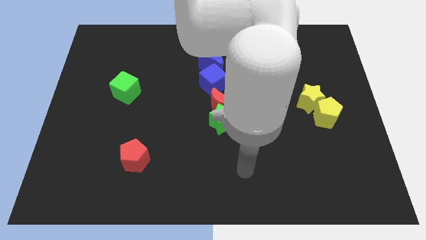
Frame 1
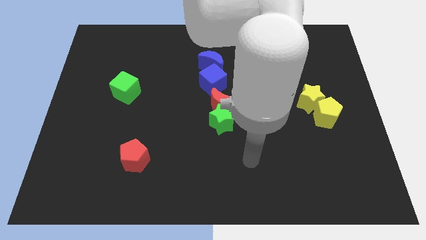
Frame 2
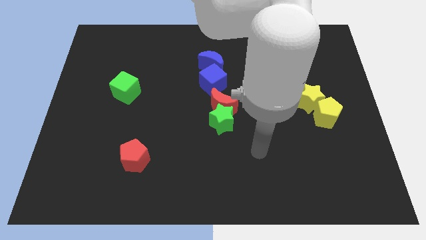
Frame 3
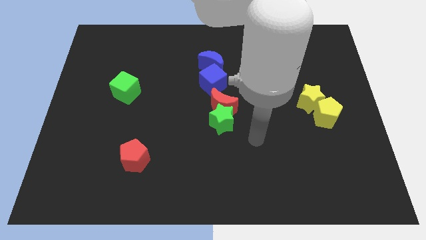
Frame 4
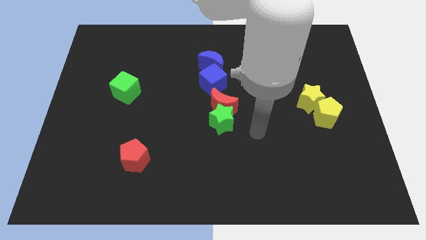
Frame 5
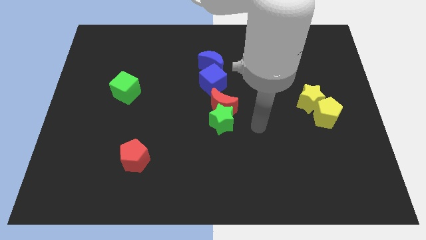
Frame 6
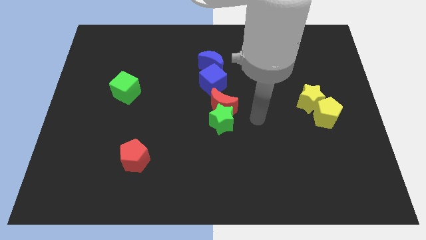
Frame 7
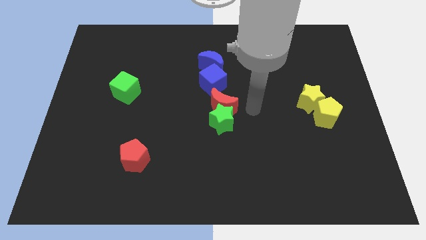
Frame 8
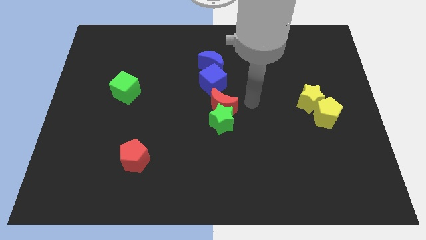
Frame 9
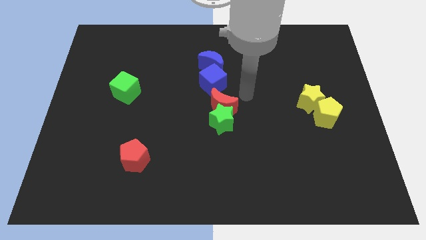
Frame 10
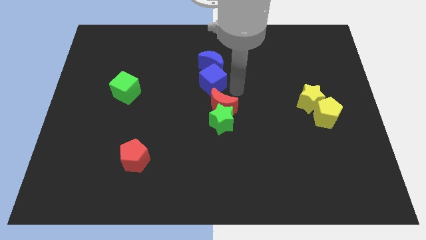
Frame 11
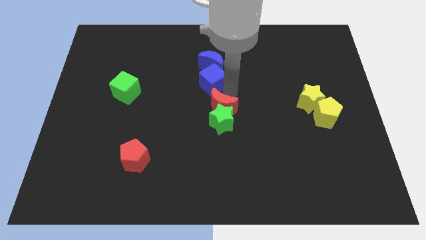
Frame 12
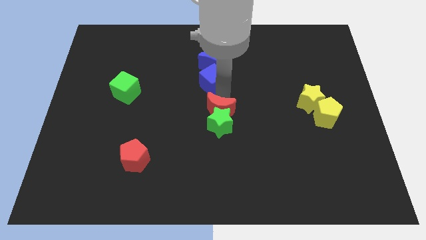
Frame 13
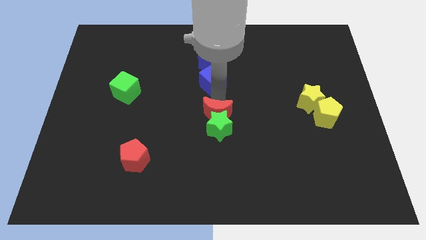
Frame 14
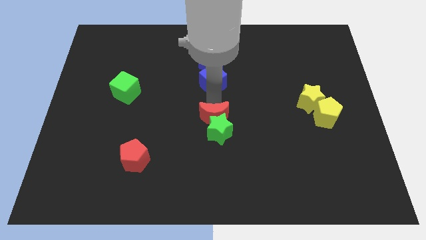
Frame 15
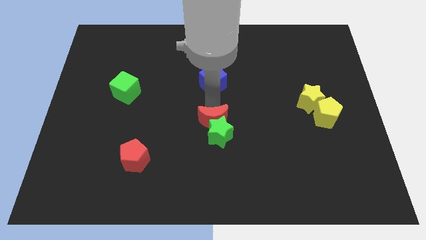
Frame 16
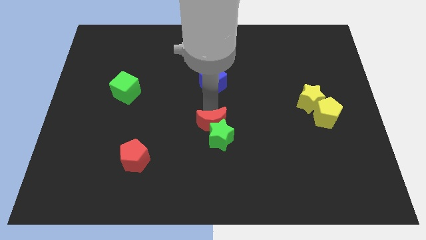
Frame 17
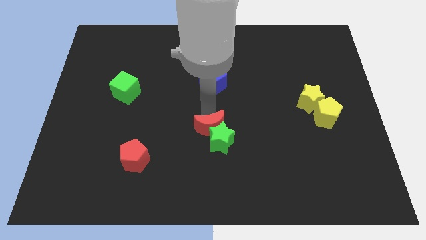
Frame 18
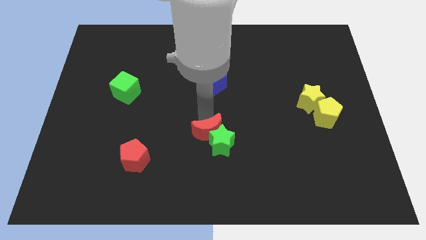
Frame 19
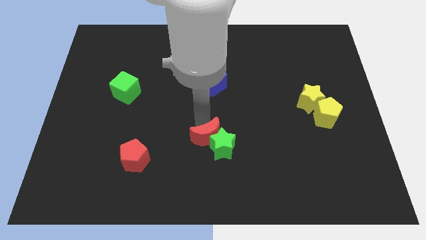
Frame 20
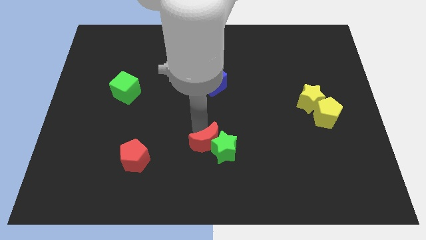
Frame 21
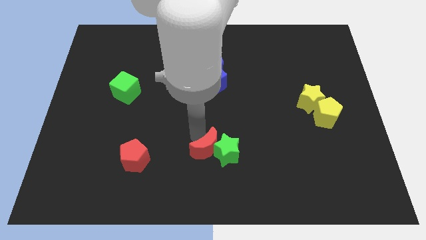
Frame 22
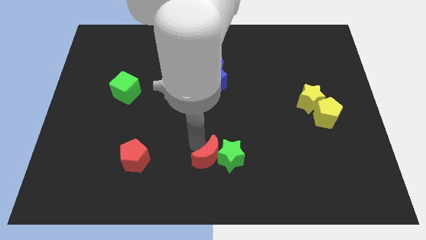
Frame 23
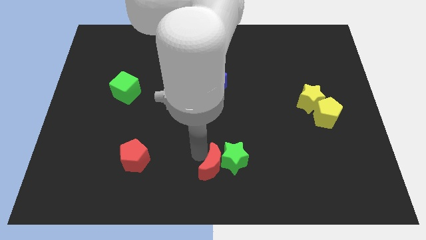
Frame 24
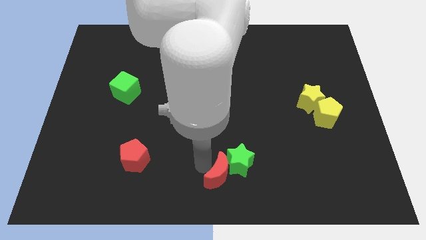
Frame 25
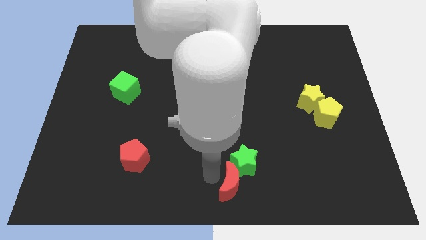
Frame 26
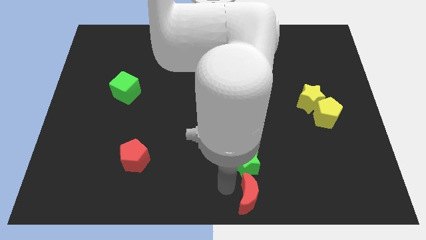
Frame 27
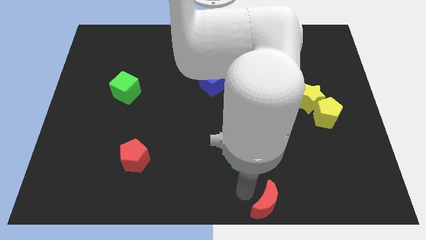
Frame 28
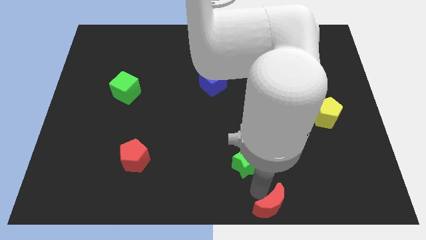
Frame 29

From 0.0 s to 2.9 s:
pull the green star apart from the red moon

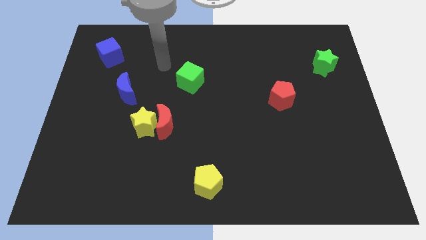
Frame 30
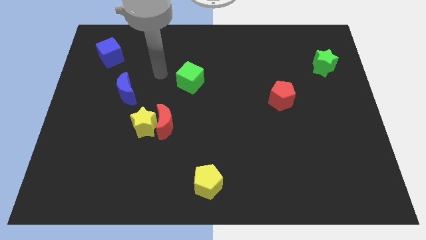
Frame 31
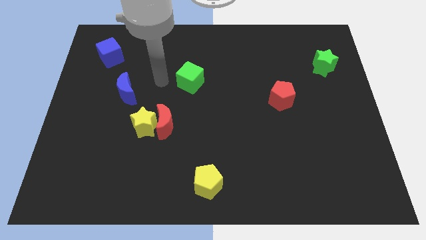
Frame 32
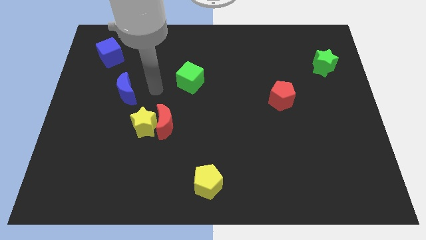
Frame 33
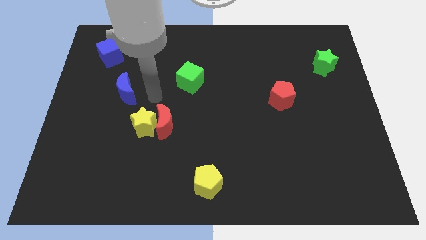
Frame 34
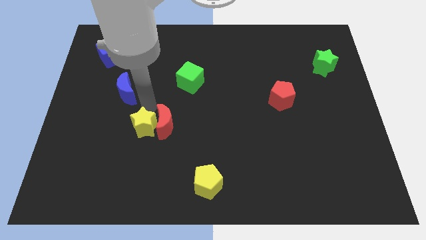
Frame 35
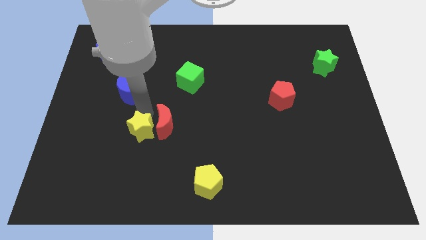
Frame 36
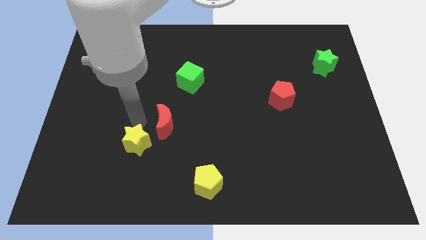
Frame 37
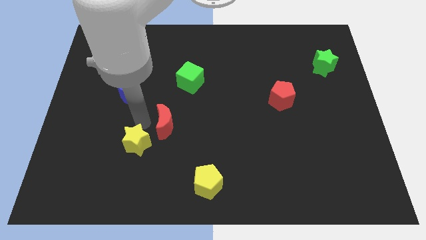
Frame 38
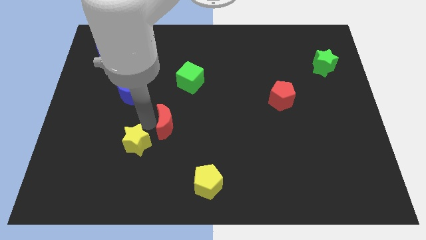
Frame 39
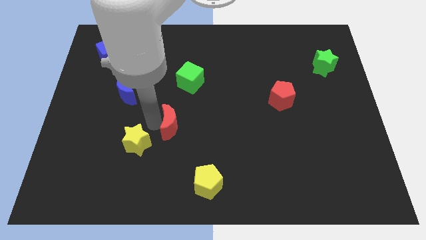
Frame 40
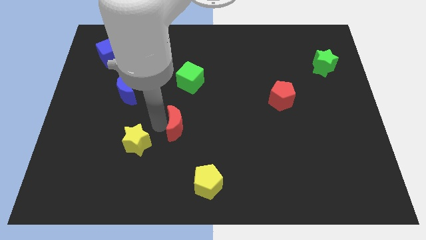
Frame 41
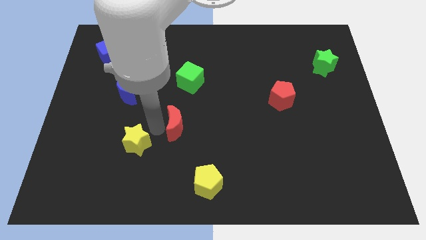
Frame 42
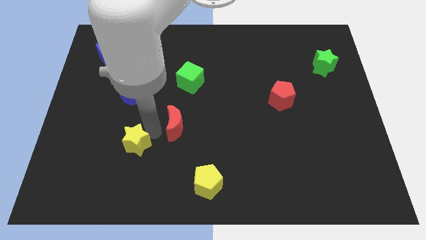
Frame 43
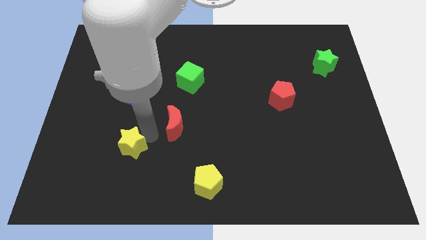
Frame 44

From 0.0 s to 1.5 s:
pull the red moon apart from the yellow star

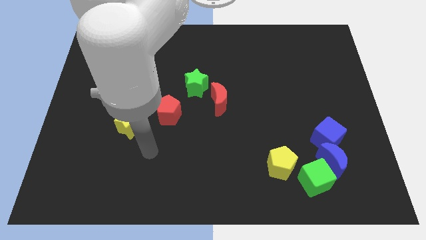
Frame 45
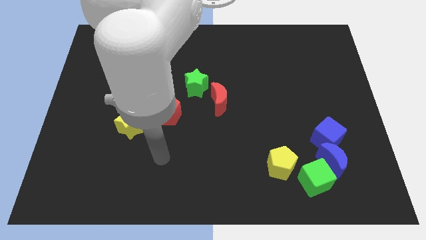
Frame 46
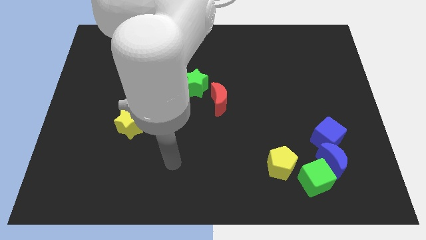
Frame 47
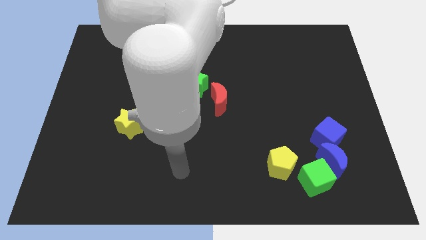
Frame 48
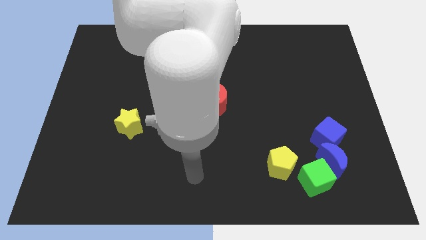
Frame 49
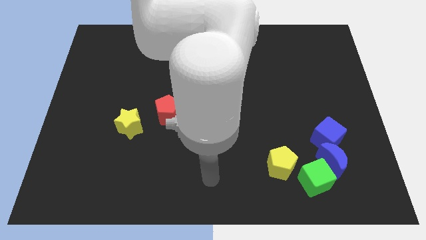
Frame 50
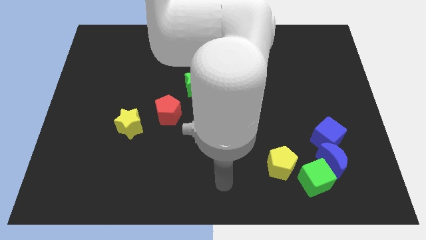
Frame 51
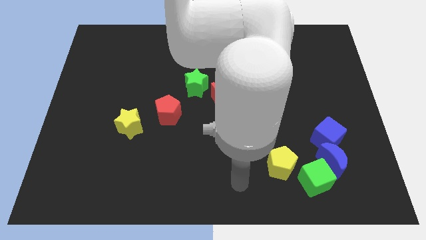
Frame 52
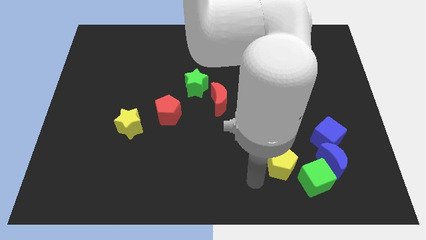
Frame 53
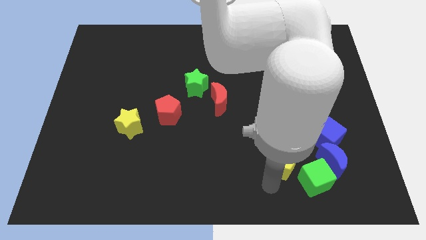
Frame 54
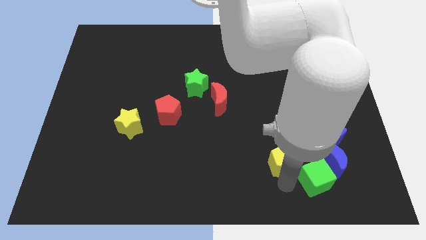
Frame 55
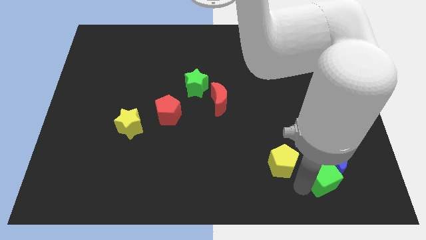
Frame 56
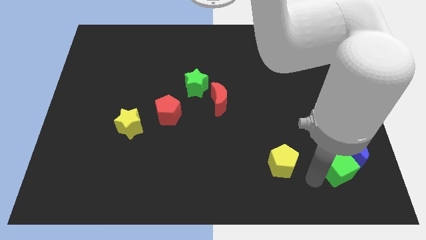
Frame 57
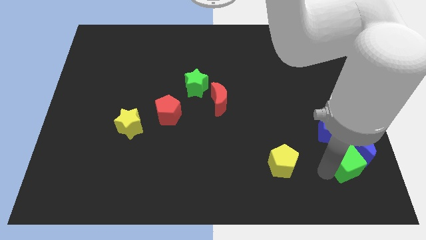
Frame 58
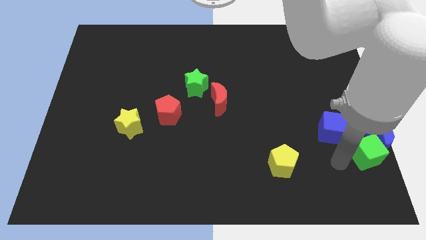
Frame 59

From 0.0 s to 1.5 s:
move the blue cube away from the blue moon

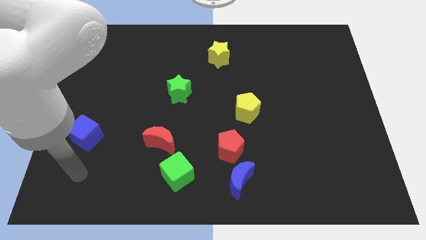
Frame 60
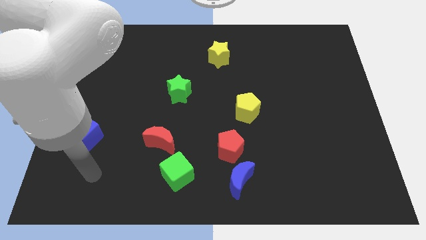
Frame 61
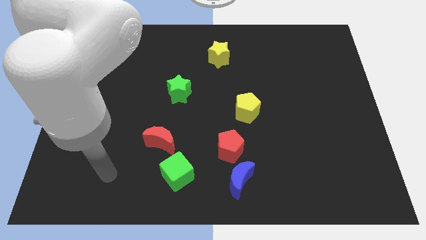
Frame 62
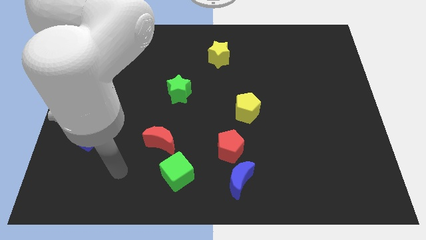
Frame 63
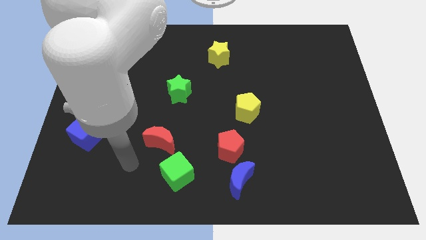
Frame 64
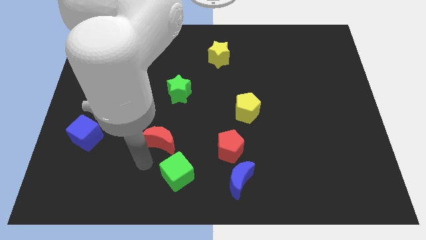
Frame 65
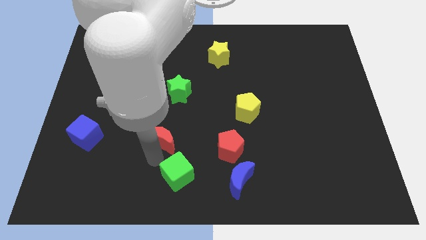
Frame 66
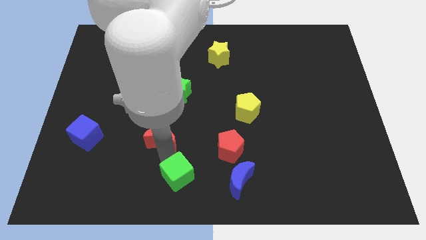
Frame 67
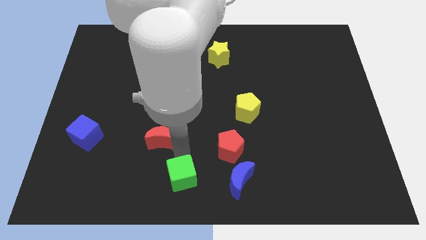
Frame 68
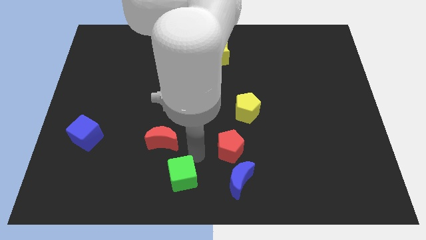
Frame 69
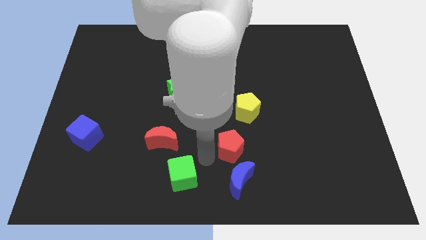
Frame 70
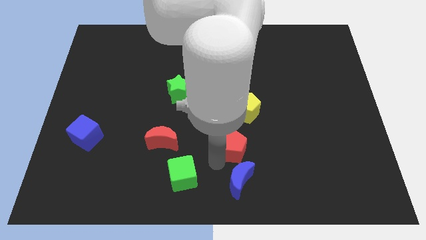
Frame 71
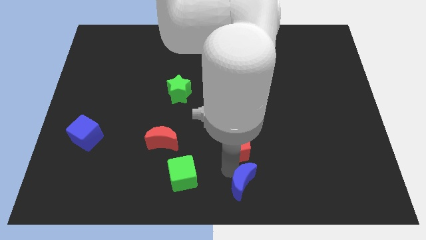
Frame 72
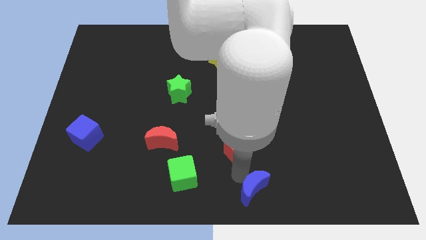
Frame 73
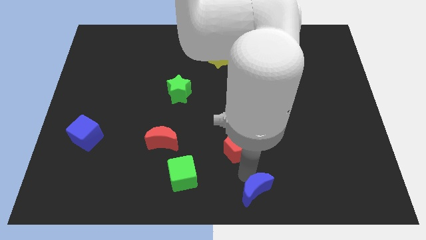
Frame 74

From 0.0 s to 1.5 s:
move the red pentagon away from the blue moon

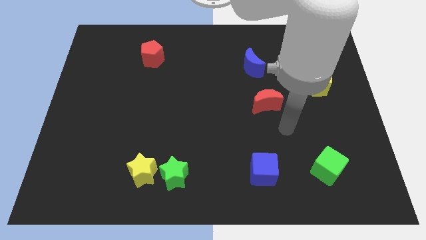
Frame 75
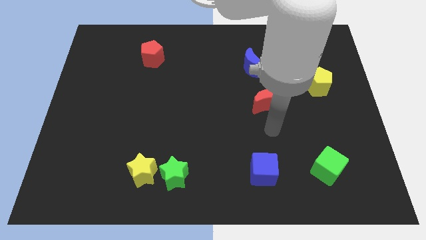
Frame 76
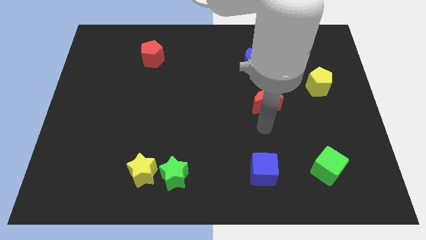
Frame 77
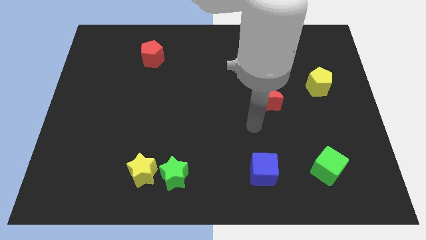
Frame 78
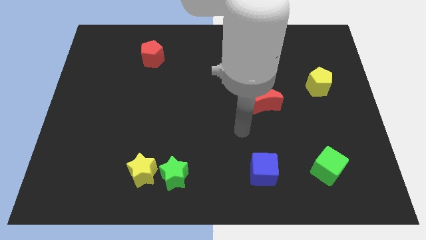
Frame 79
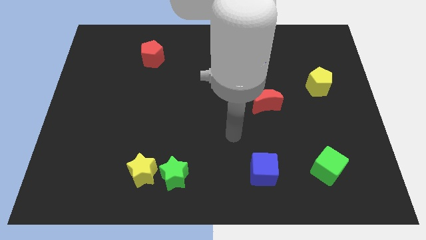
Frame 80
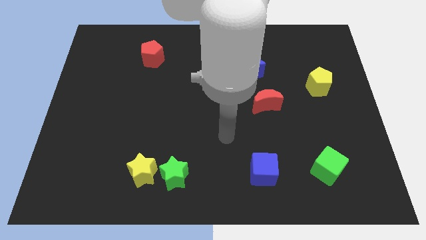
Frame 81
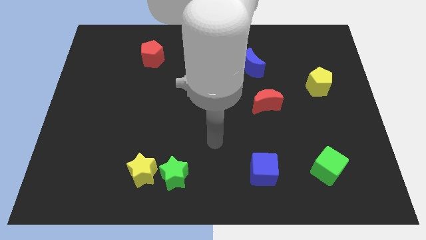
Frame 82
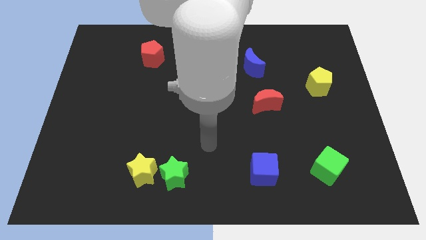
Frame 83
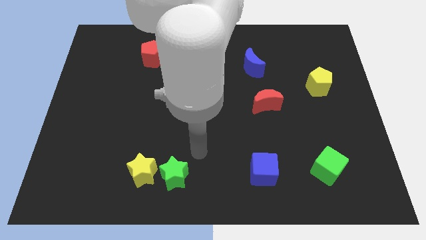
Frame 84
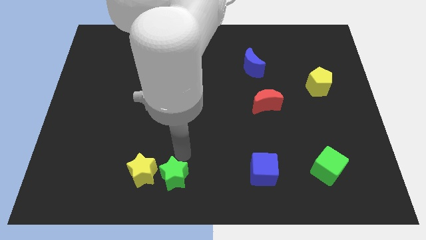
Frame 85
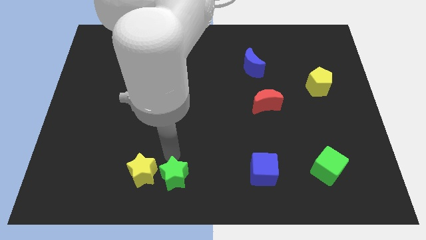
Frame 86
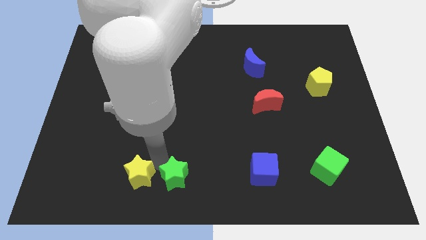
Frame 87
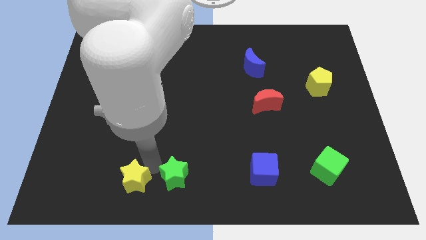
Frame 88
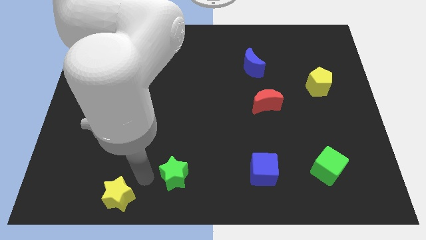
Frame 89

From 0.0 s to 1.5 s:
move the green star away from the yellow star

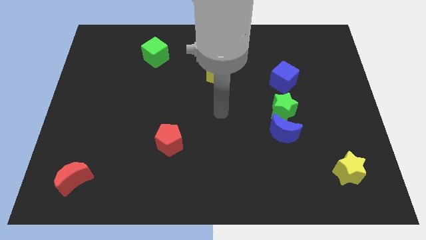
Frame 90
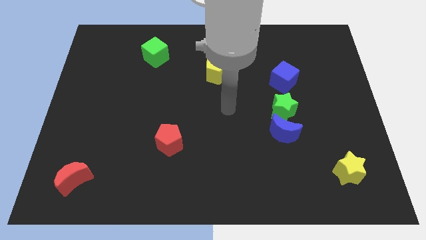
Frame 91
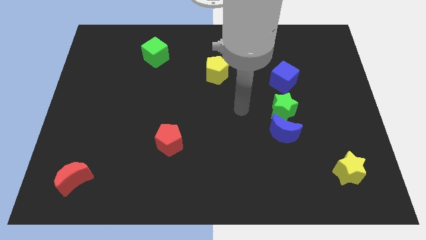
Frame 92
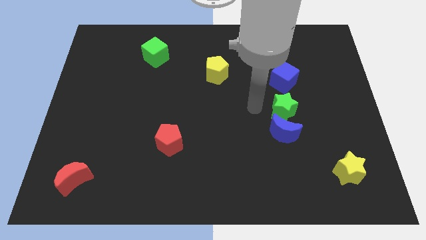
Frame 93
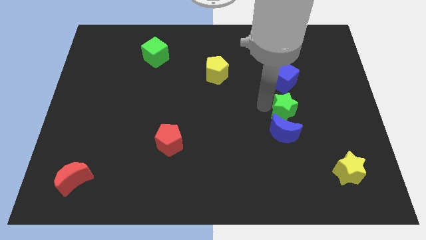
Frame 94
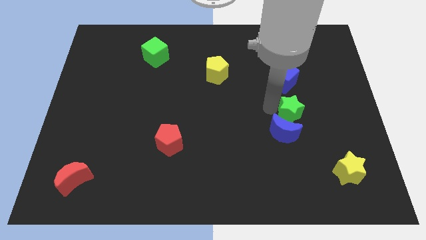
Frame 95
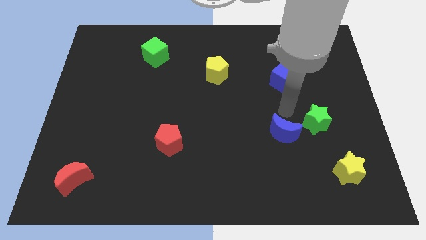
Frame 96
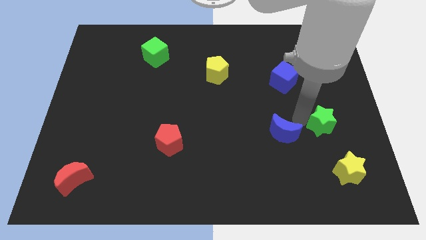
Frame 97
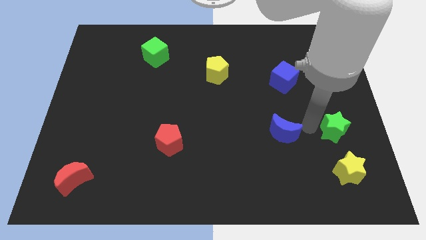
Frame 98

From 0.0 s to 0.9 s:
move the blue moon away from the green star
